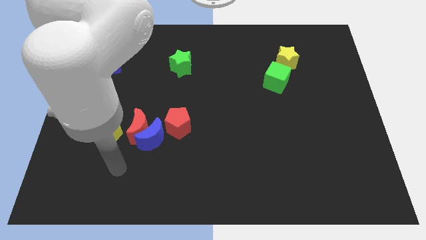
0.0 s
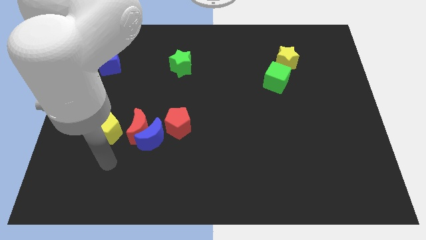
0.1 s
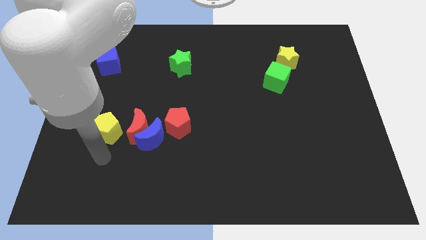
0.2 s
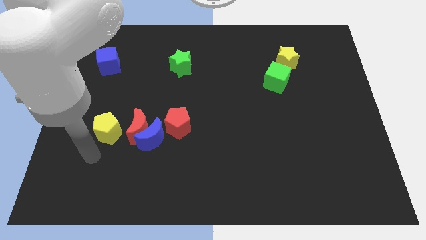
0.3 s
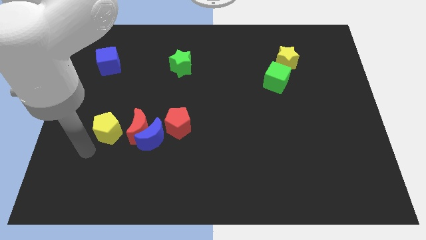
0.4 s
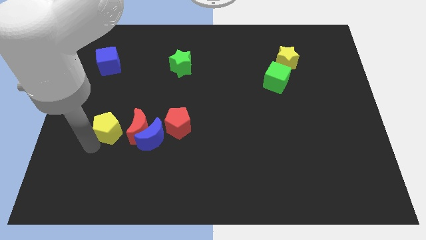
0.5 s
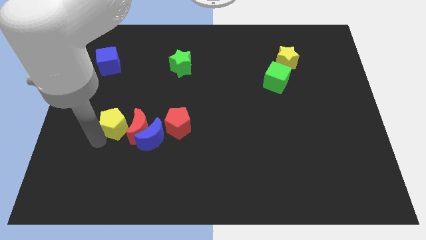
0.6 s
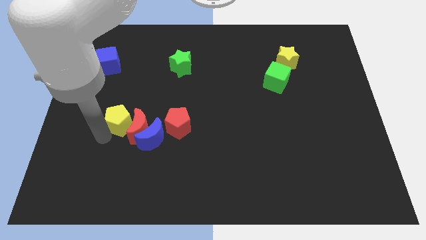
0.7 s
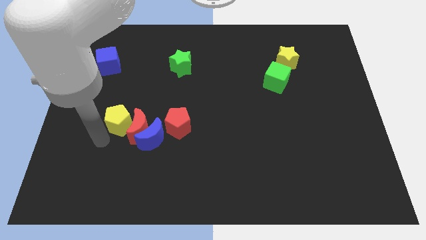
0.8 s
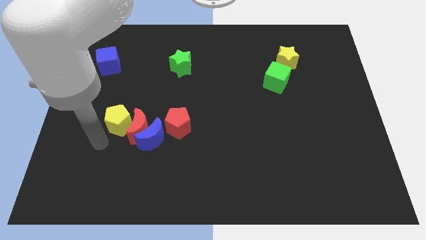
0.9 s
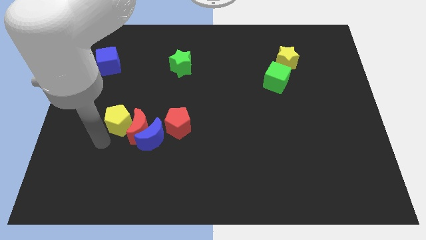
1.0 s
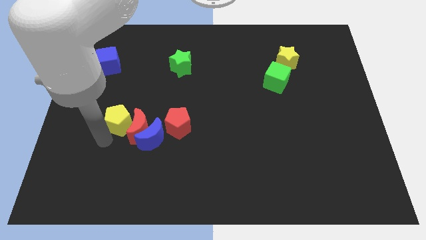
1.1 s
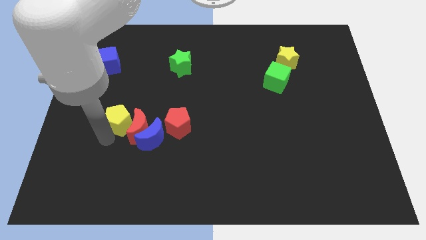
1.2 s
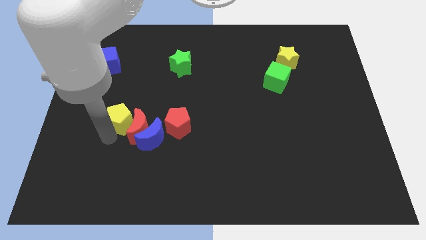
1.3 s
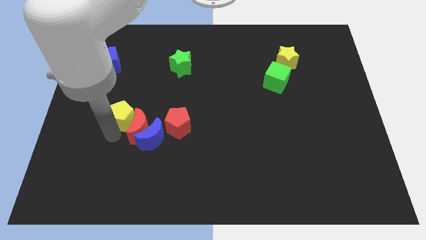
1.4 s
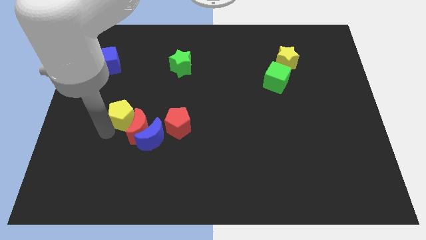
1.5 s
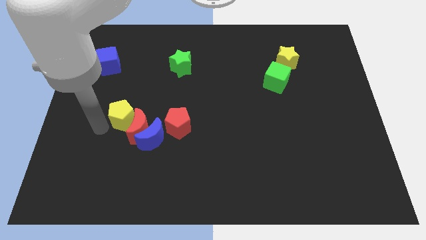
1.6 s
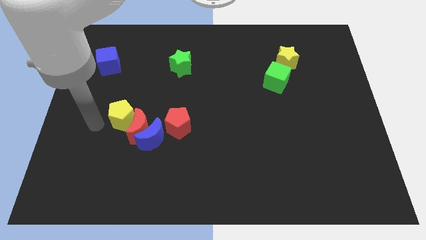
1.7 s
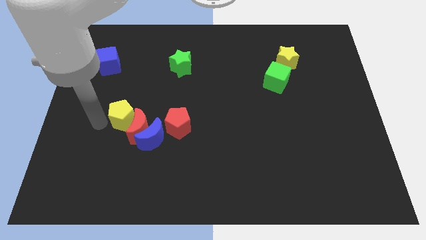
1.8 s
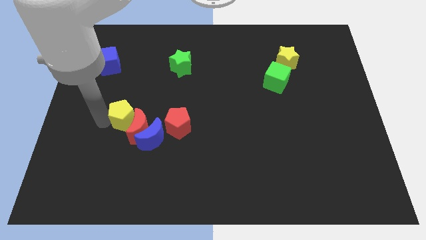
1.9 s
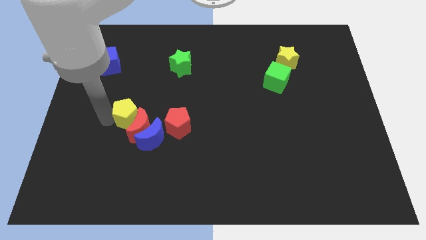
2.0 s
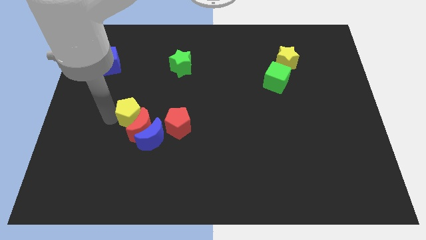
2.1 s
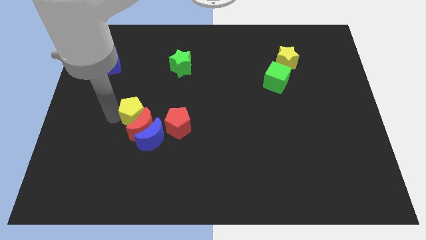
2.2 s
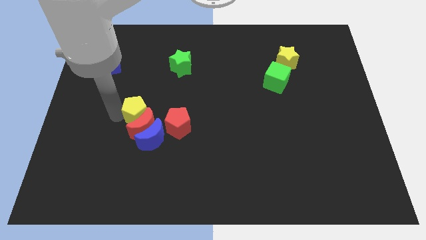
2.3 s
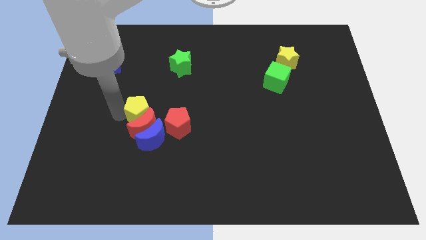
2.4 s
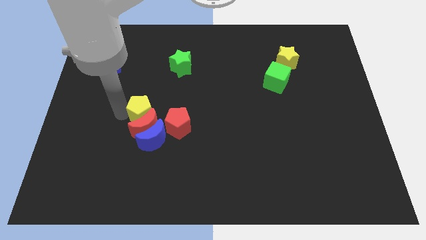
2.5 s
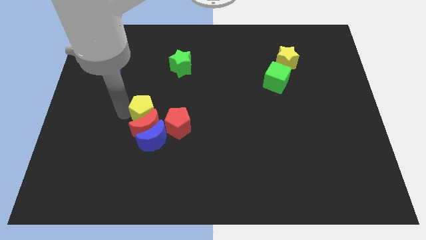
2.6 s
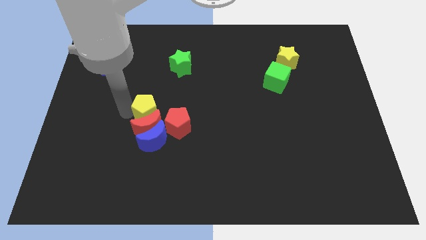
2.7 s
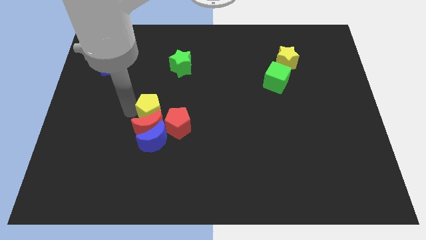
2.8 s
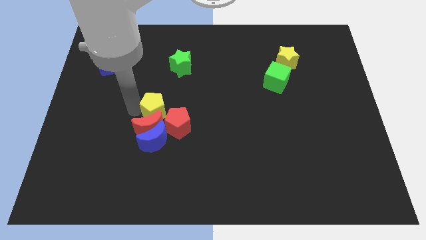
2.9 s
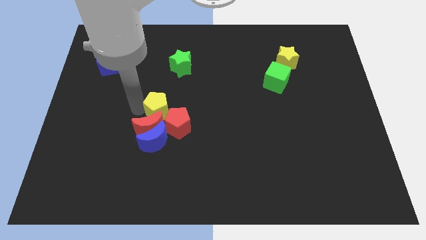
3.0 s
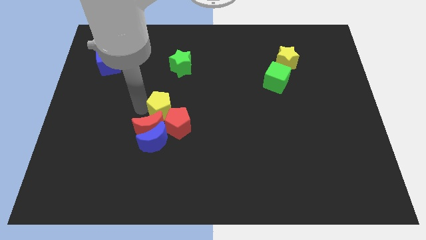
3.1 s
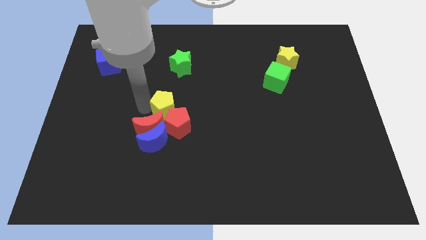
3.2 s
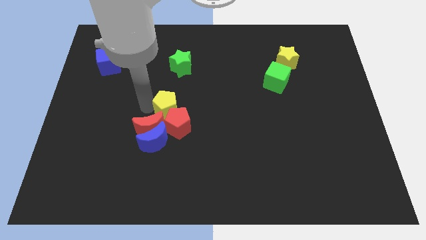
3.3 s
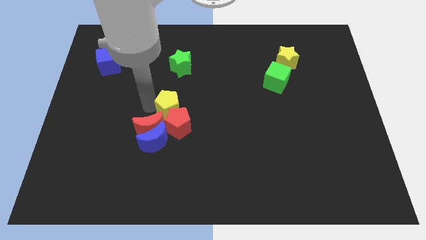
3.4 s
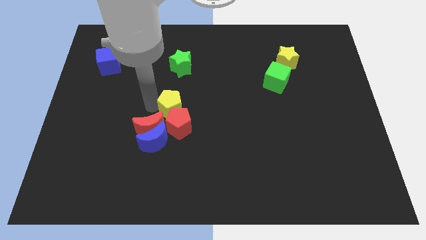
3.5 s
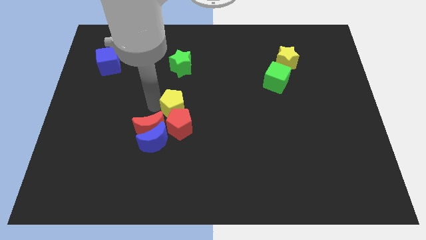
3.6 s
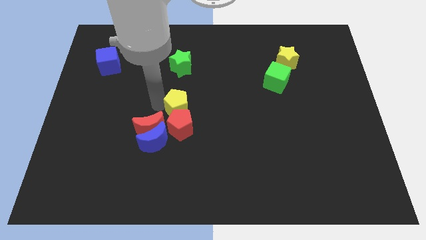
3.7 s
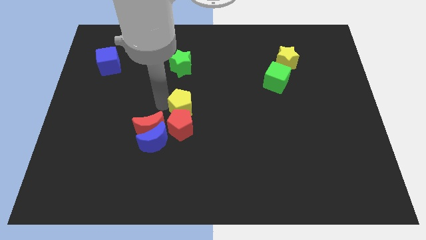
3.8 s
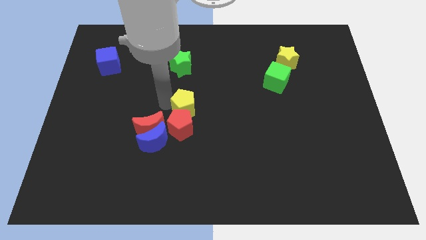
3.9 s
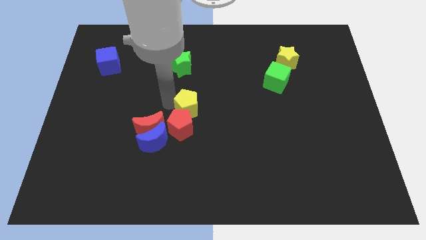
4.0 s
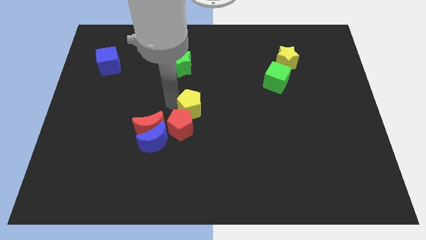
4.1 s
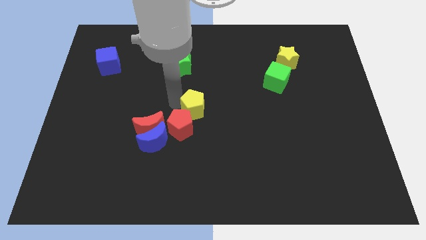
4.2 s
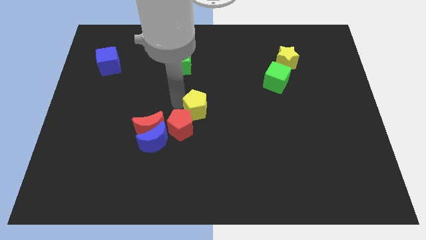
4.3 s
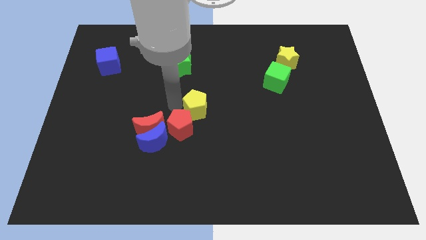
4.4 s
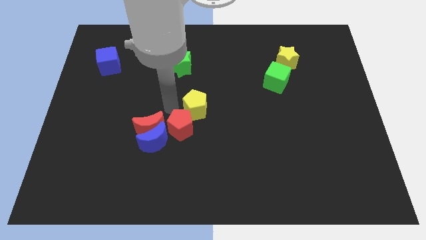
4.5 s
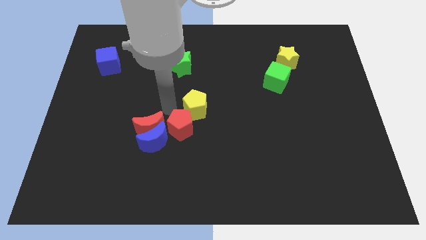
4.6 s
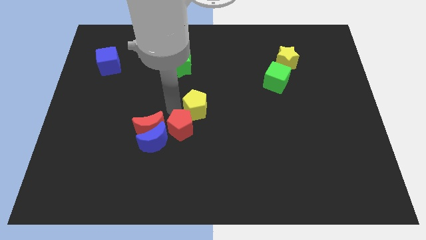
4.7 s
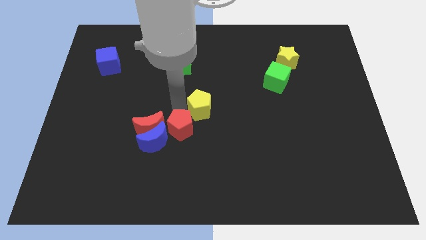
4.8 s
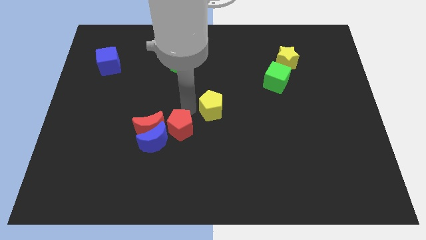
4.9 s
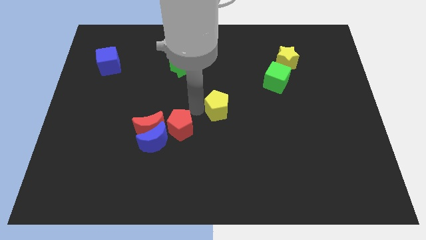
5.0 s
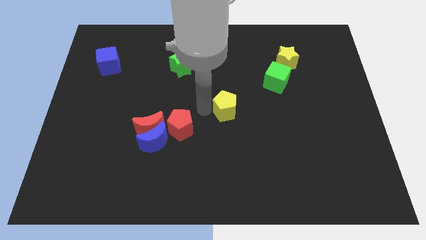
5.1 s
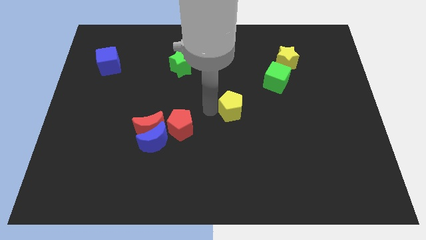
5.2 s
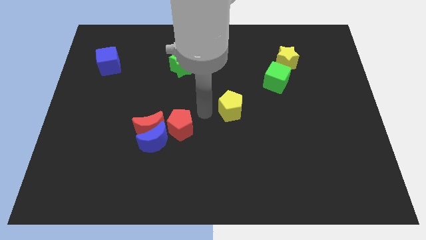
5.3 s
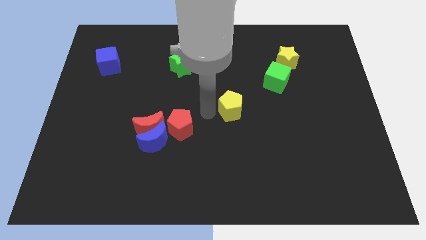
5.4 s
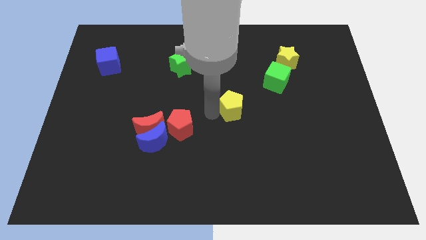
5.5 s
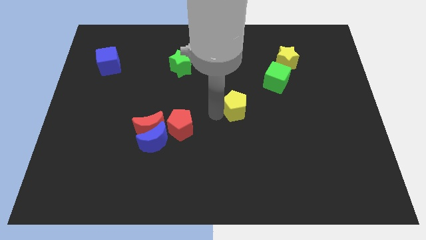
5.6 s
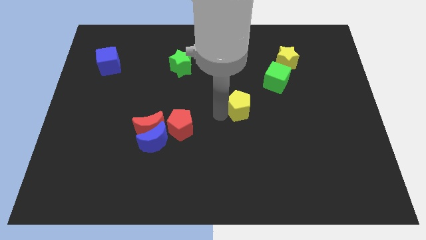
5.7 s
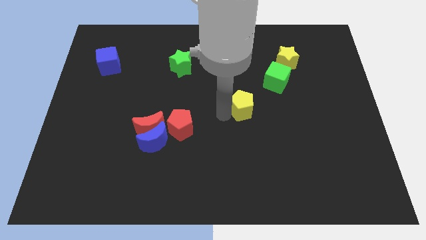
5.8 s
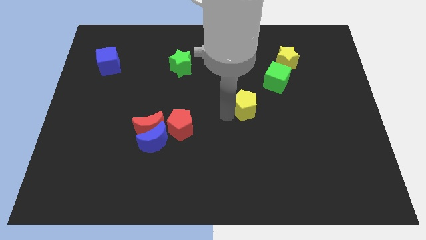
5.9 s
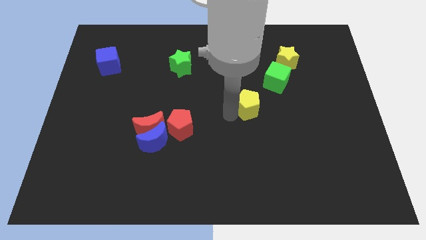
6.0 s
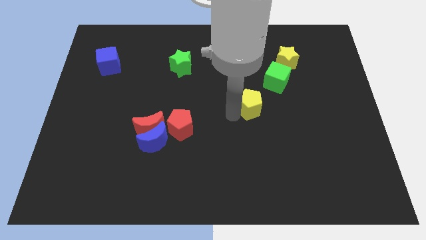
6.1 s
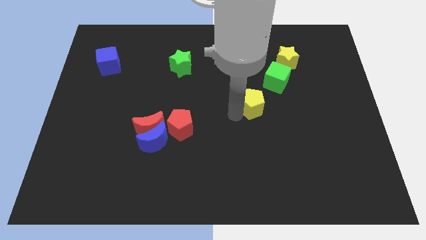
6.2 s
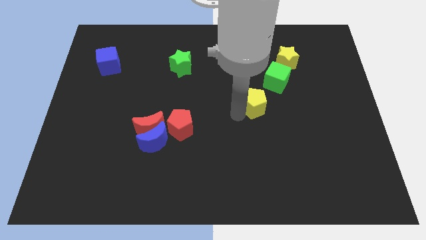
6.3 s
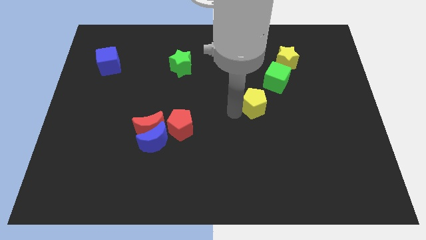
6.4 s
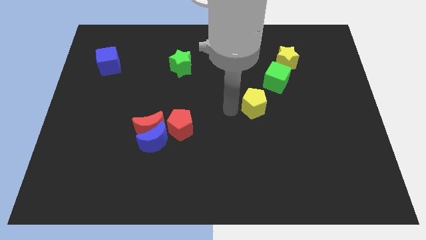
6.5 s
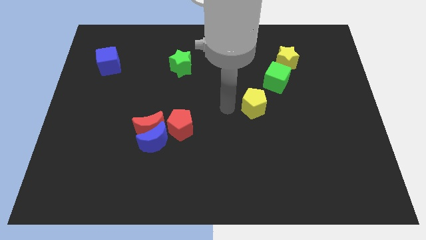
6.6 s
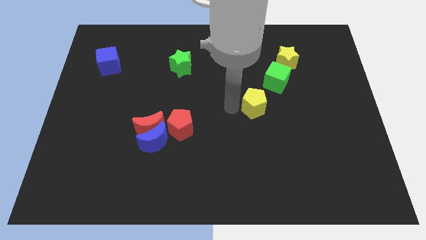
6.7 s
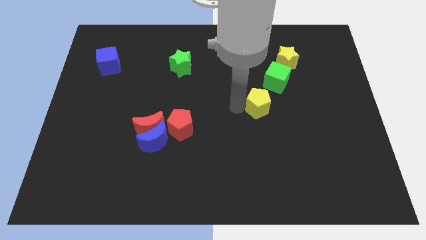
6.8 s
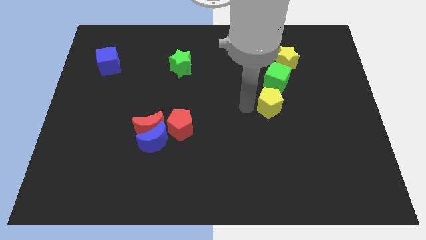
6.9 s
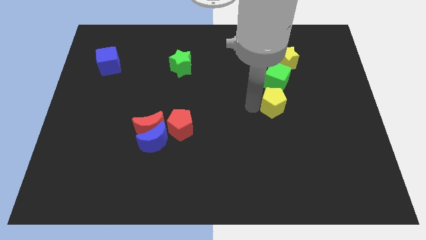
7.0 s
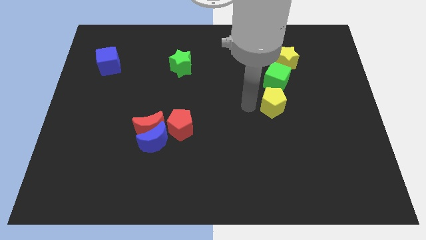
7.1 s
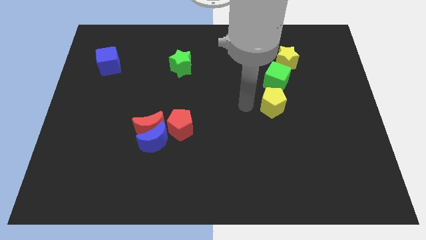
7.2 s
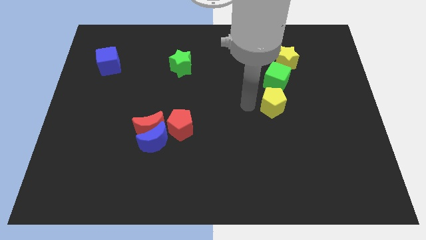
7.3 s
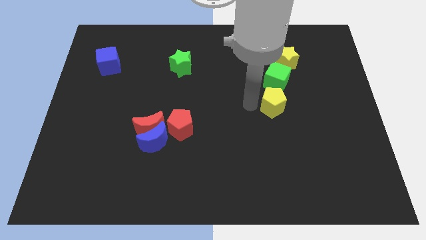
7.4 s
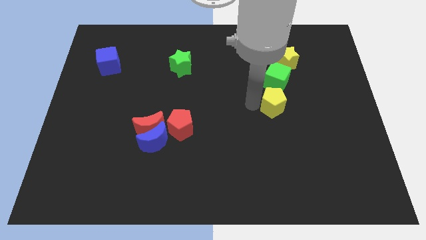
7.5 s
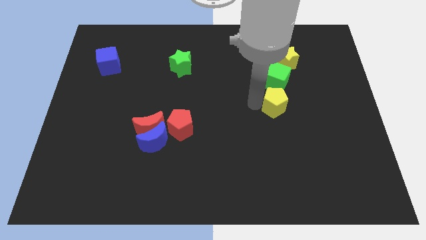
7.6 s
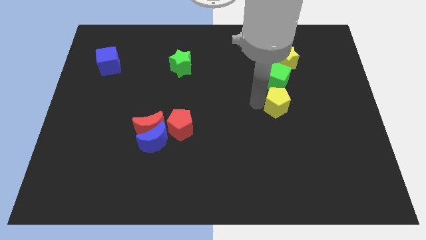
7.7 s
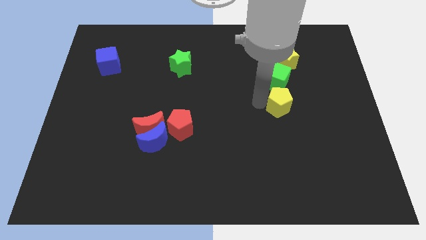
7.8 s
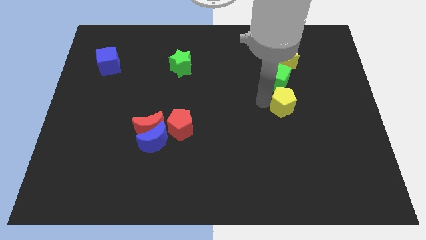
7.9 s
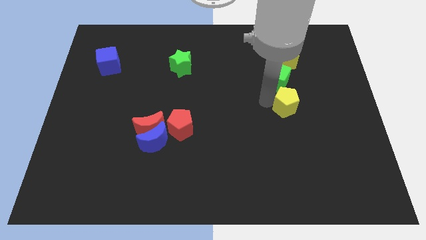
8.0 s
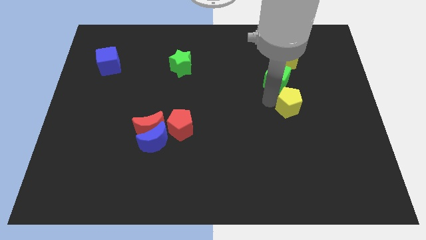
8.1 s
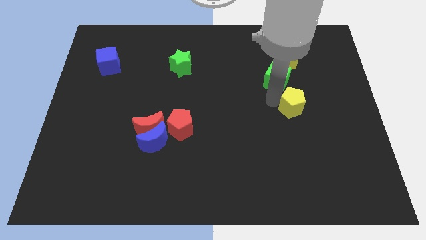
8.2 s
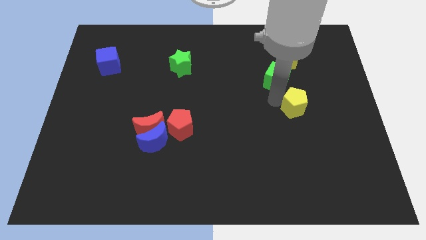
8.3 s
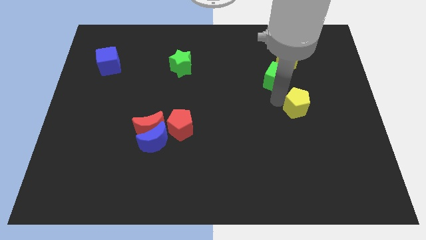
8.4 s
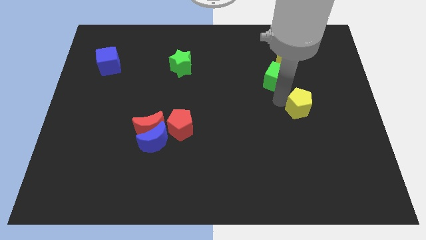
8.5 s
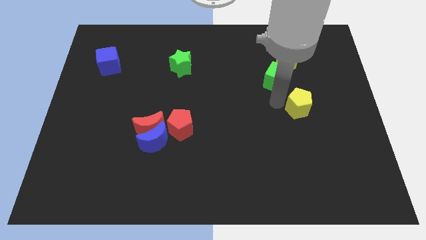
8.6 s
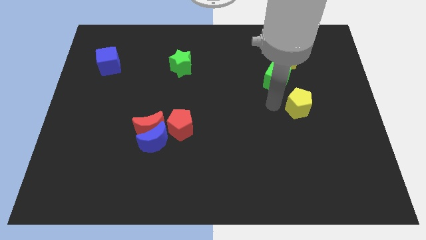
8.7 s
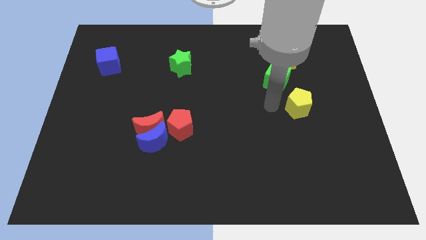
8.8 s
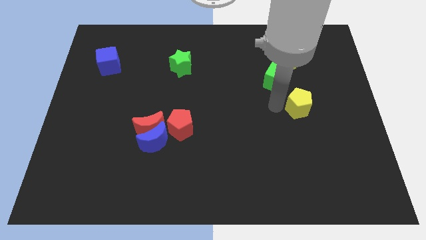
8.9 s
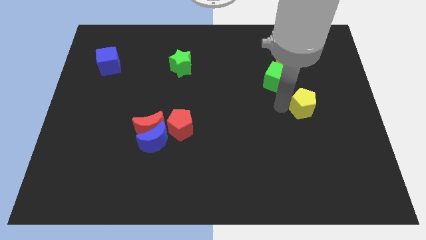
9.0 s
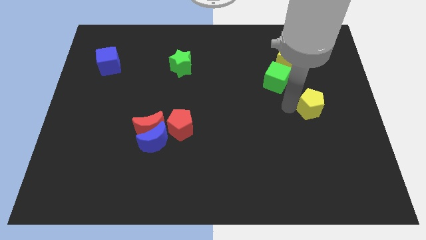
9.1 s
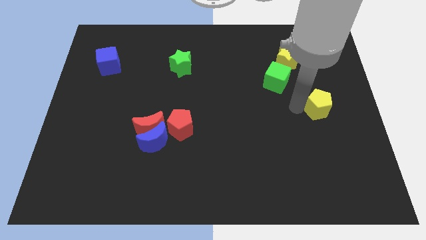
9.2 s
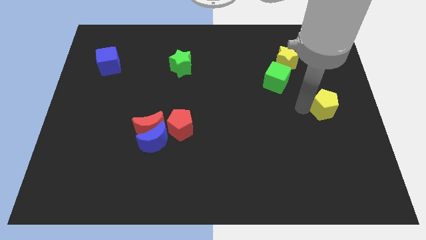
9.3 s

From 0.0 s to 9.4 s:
slide the yellow pentagon to the right side of the board
